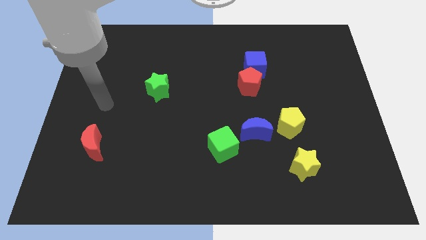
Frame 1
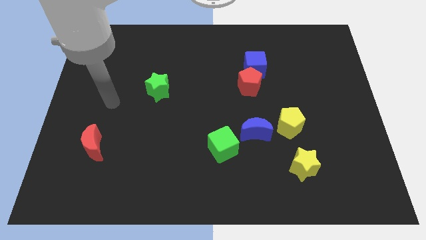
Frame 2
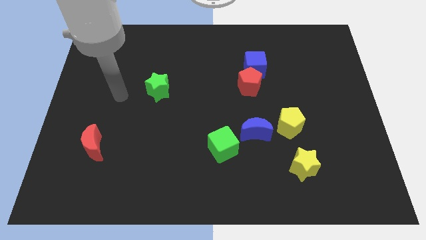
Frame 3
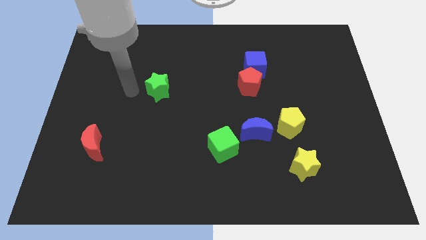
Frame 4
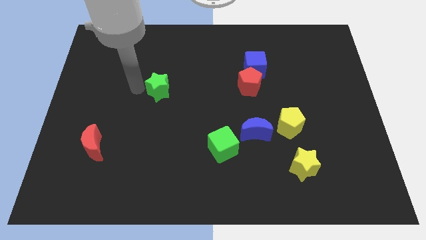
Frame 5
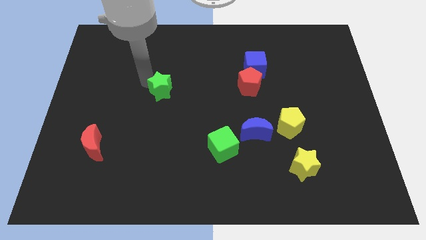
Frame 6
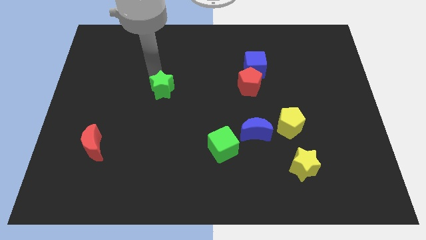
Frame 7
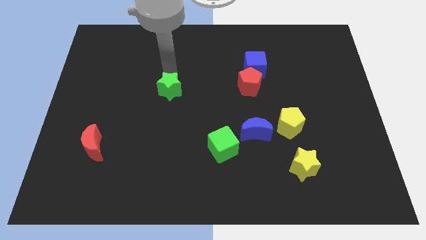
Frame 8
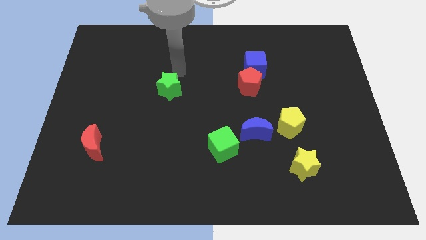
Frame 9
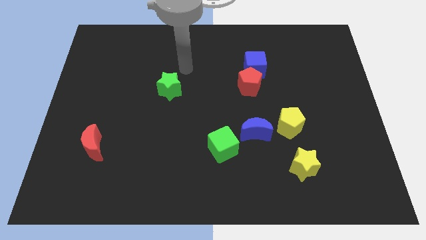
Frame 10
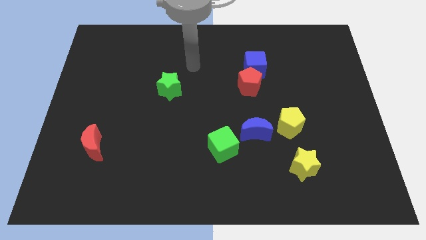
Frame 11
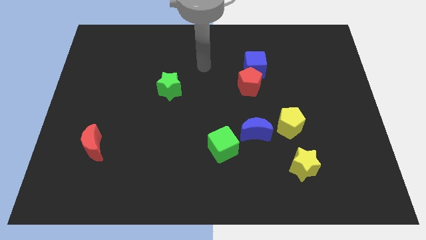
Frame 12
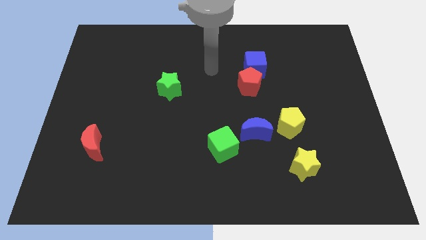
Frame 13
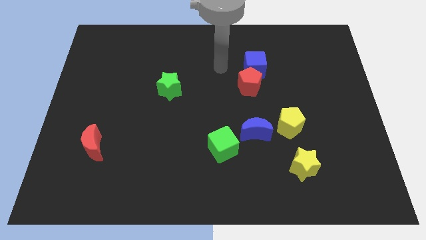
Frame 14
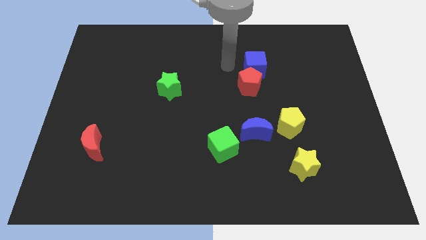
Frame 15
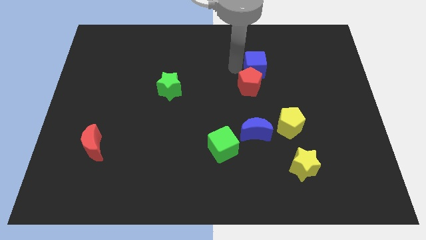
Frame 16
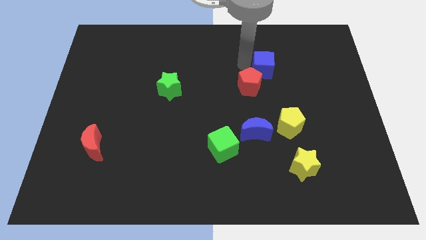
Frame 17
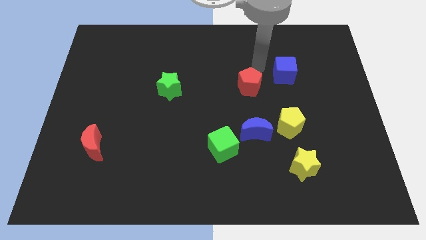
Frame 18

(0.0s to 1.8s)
separate the red pentagon from the blue cube

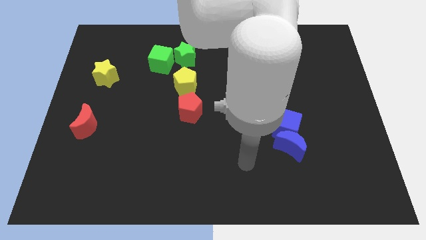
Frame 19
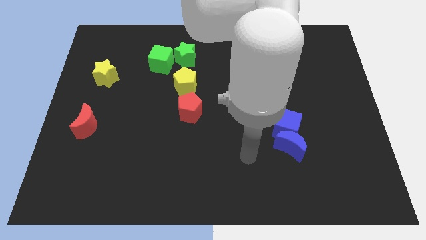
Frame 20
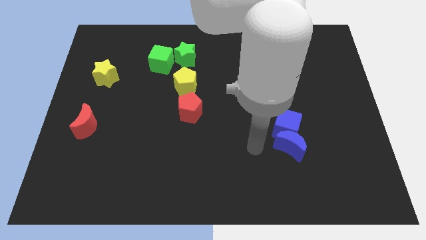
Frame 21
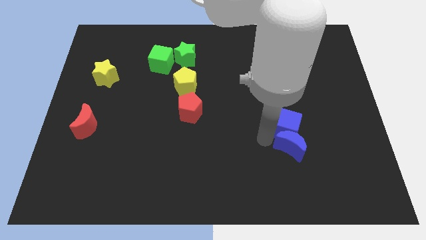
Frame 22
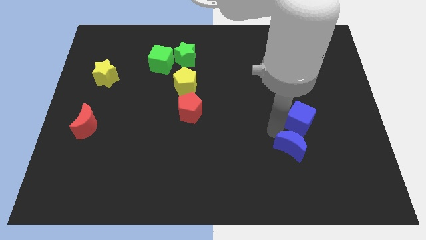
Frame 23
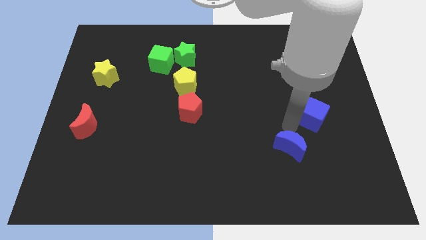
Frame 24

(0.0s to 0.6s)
separate the blue moon from the blue cube

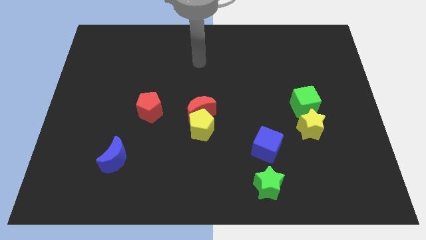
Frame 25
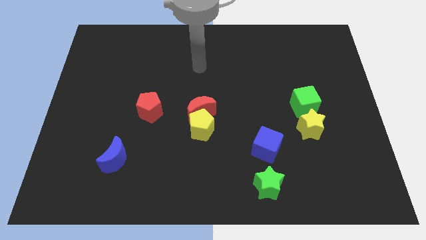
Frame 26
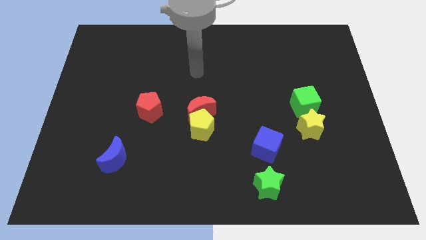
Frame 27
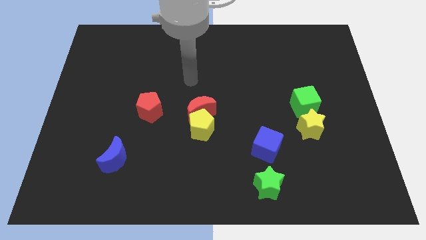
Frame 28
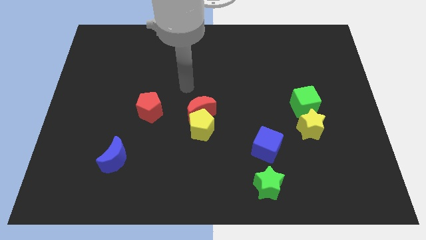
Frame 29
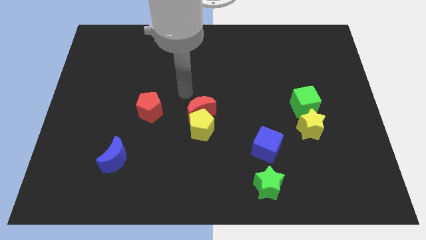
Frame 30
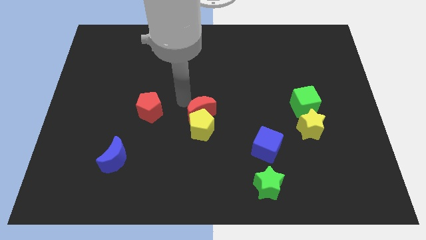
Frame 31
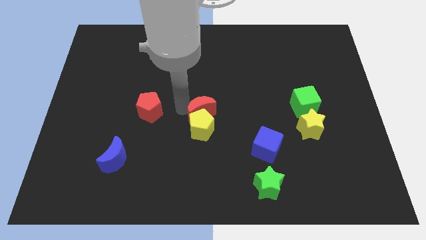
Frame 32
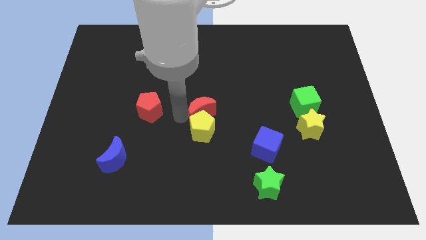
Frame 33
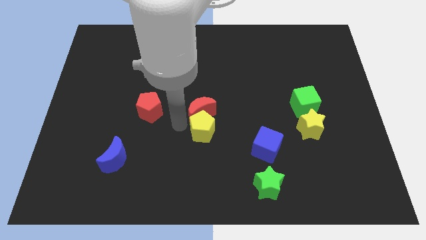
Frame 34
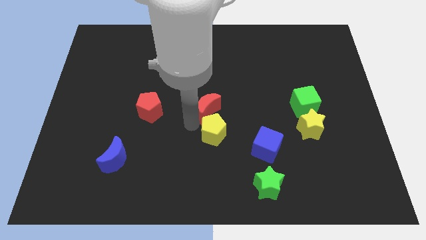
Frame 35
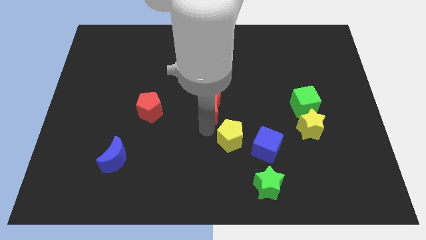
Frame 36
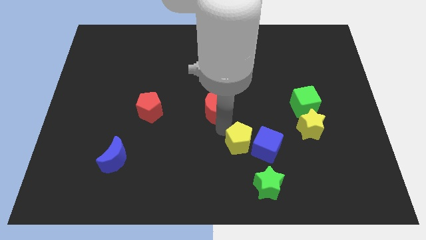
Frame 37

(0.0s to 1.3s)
move the red moon away from the yellow pentagon

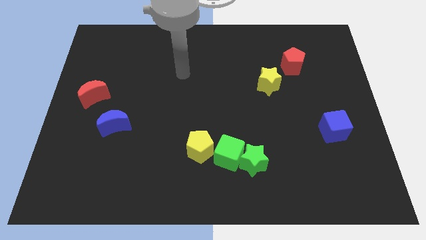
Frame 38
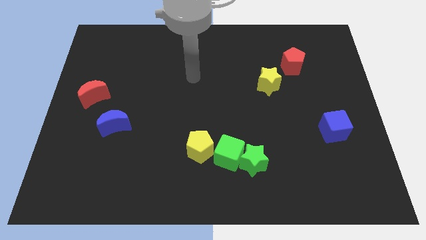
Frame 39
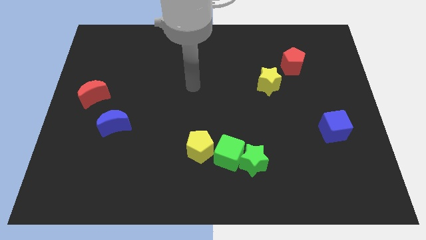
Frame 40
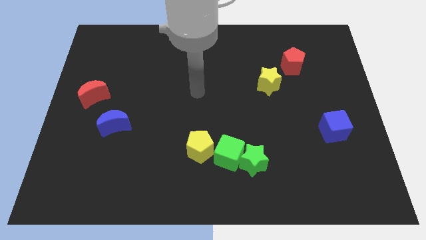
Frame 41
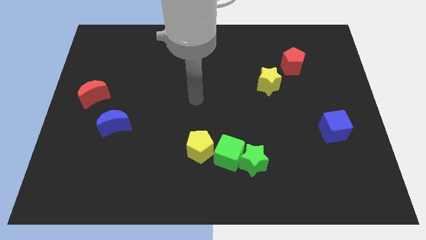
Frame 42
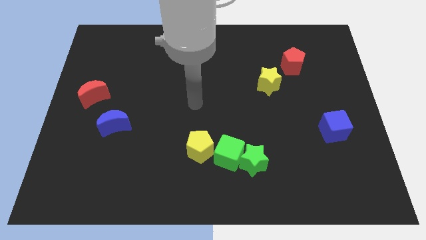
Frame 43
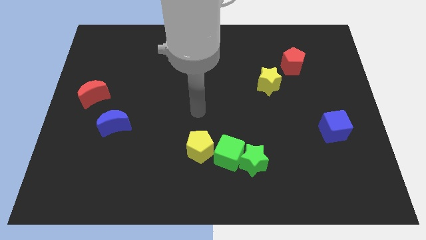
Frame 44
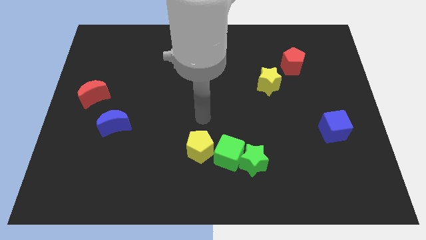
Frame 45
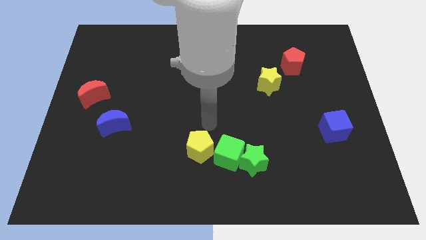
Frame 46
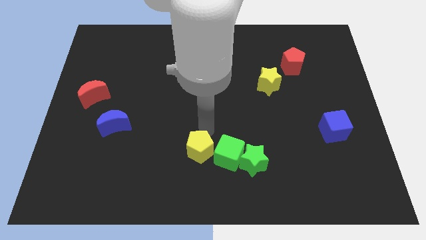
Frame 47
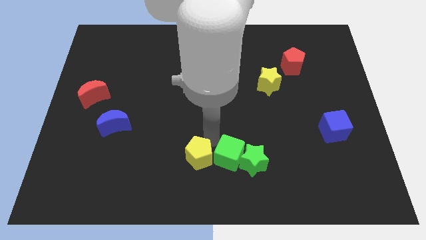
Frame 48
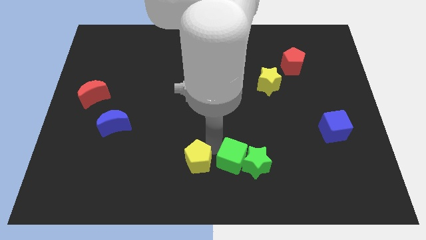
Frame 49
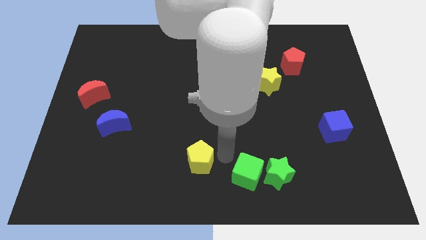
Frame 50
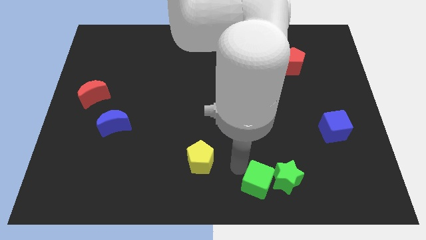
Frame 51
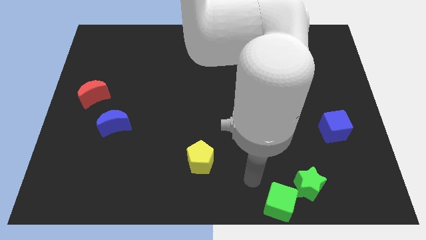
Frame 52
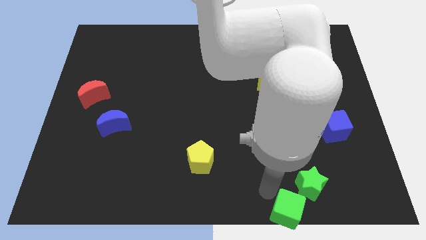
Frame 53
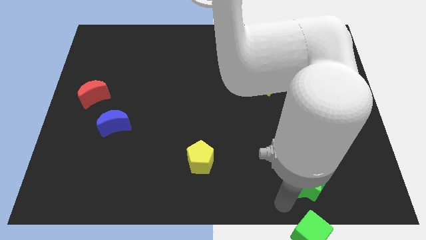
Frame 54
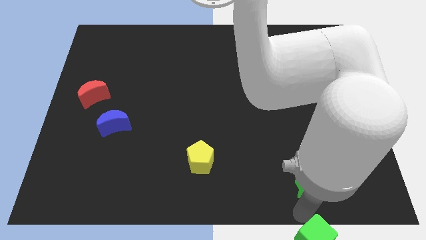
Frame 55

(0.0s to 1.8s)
pull the green star apart from the green cube

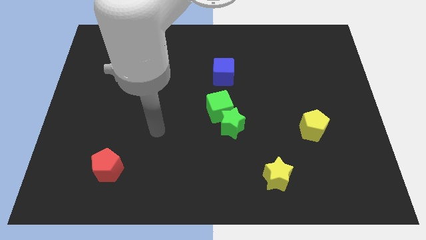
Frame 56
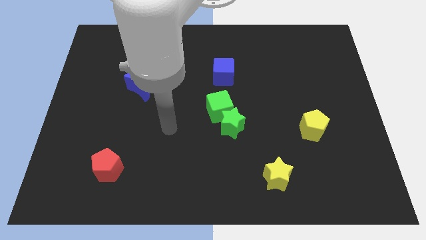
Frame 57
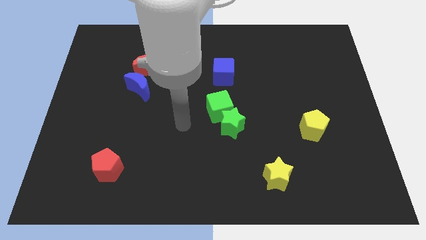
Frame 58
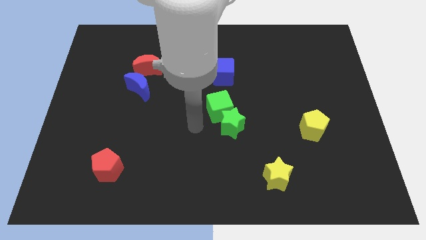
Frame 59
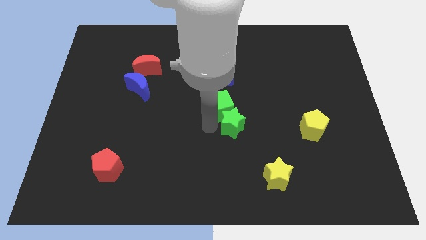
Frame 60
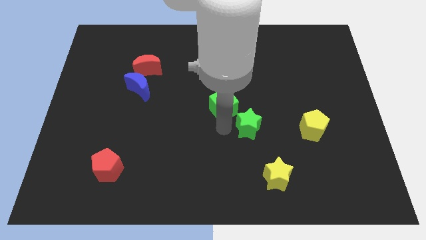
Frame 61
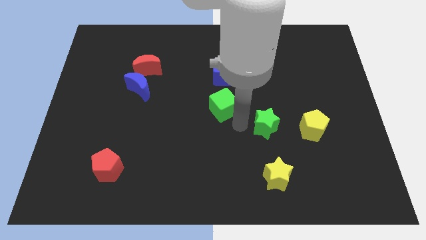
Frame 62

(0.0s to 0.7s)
separate the green cube from the green star

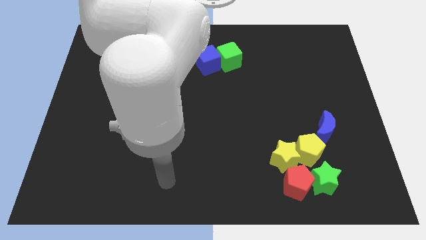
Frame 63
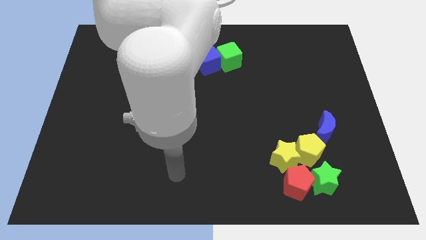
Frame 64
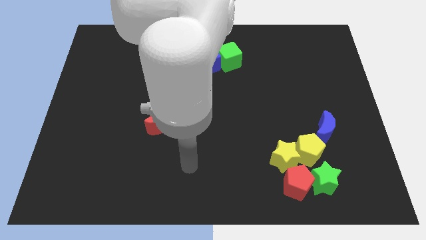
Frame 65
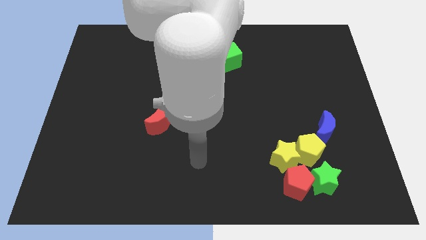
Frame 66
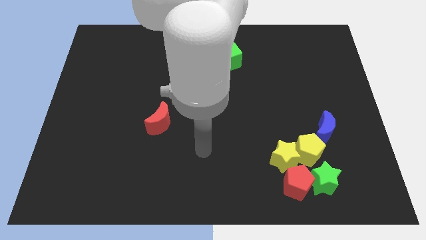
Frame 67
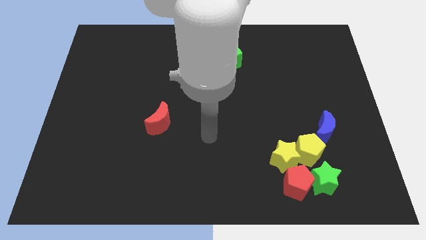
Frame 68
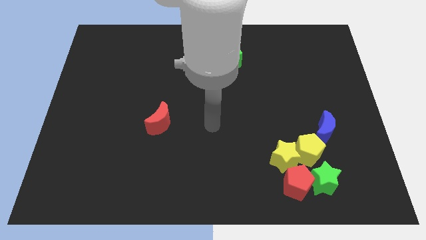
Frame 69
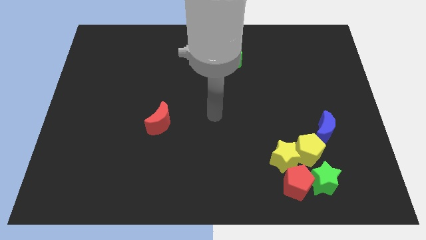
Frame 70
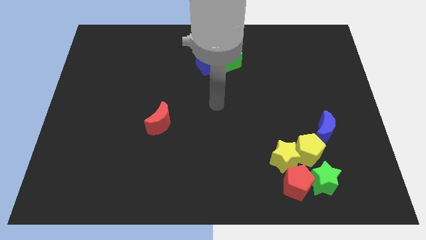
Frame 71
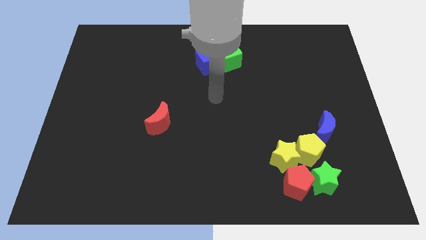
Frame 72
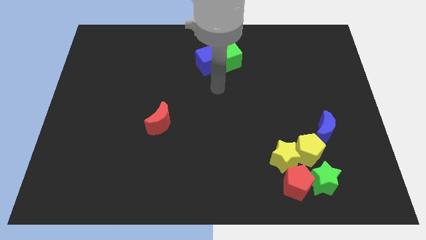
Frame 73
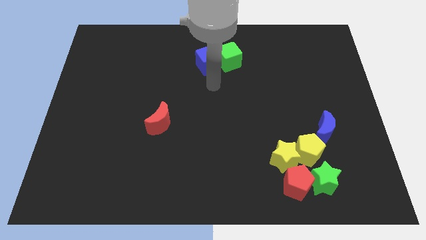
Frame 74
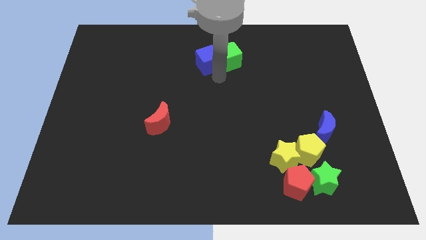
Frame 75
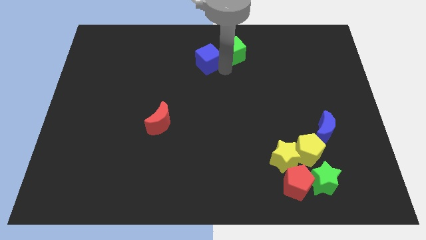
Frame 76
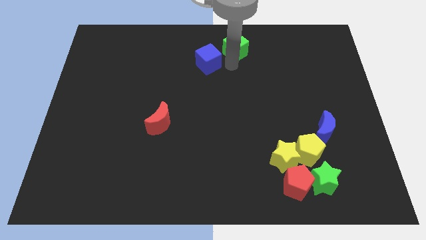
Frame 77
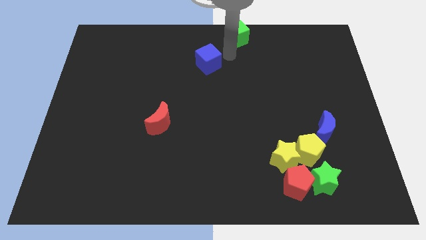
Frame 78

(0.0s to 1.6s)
separate the blue cube from the green cube

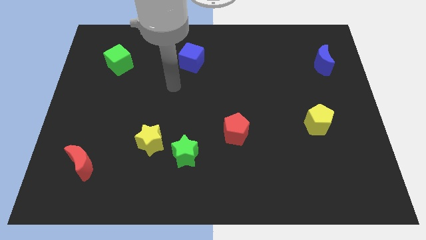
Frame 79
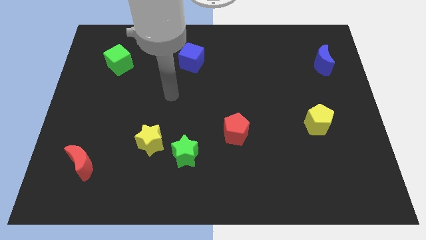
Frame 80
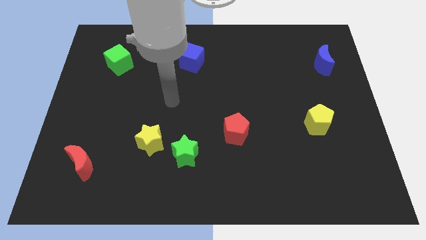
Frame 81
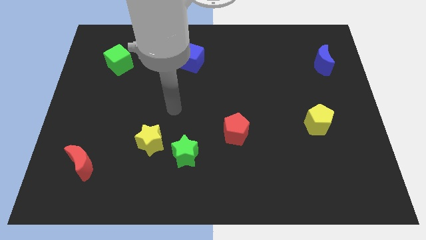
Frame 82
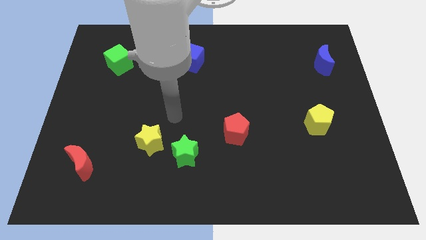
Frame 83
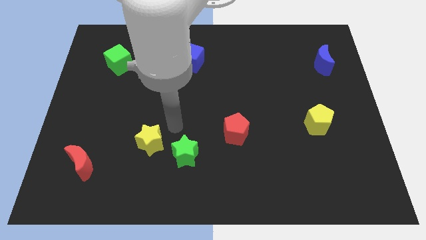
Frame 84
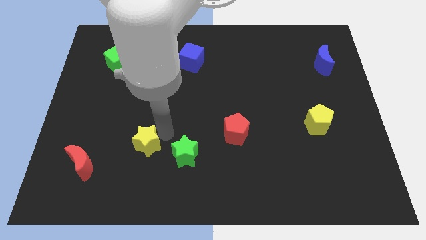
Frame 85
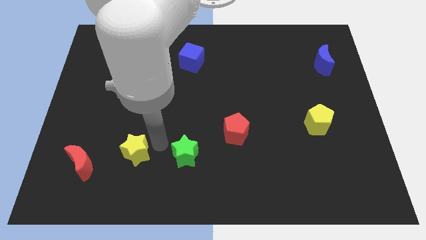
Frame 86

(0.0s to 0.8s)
pull the green star apart from the yellow star

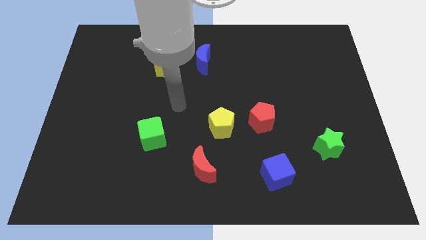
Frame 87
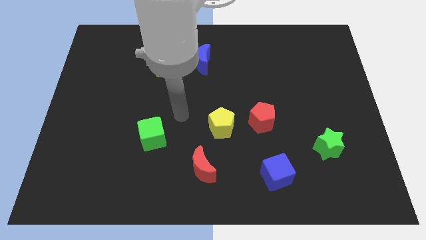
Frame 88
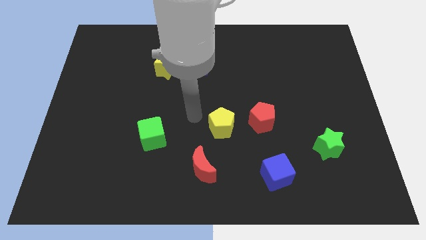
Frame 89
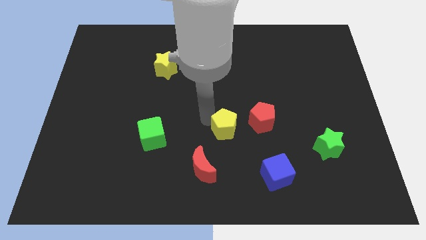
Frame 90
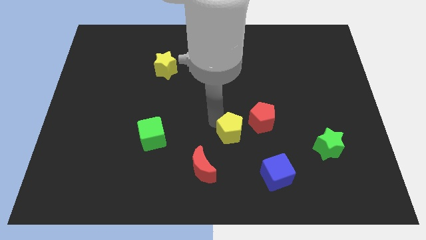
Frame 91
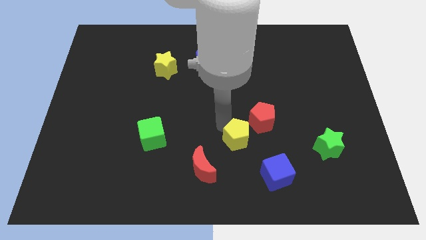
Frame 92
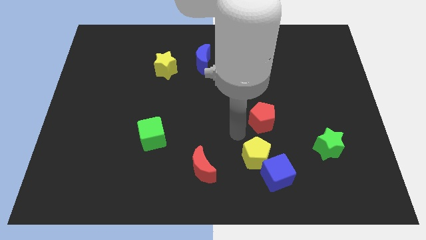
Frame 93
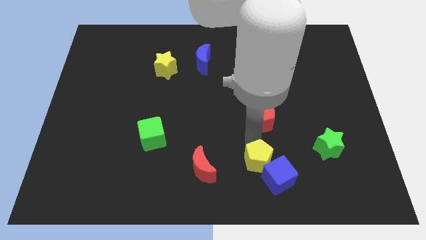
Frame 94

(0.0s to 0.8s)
move the red pentagon away from the yellow pentagon
